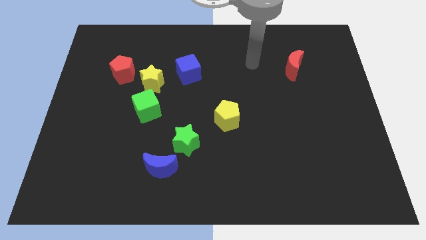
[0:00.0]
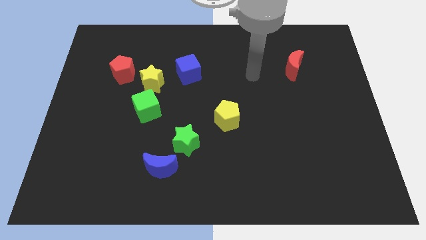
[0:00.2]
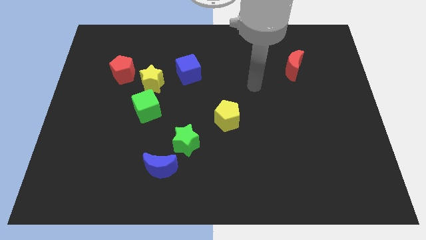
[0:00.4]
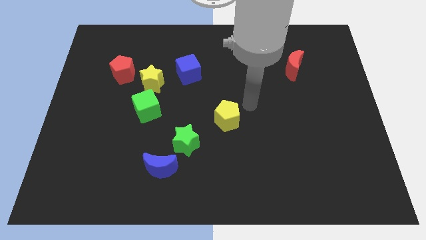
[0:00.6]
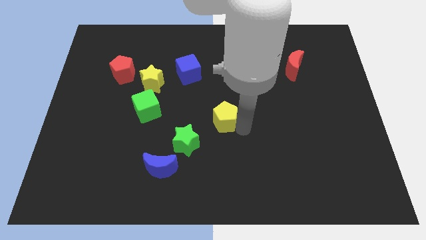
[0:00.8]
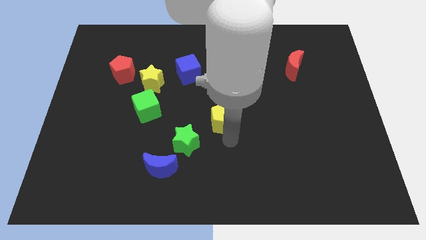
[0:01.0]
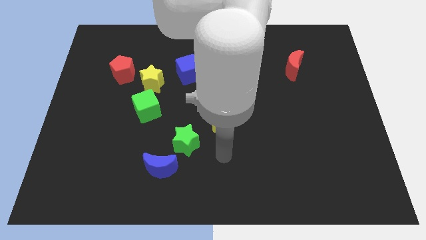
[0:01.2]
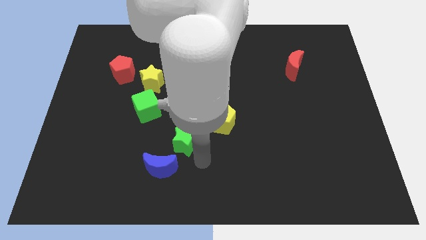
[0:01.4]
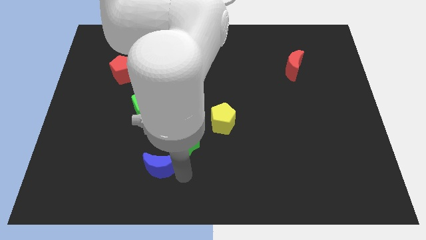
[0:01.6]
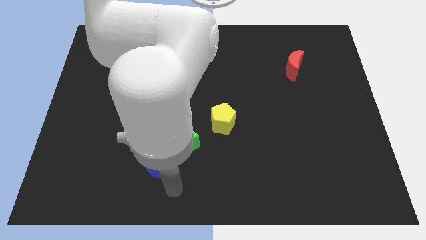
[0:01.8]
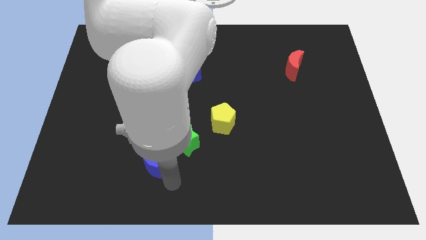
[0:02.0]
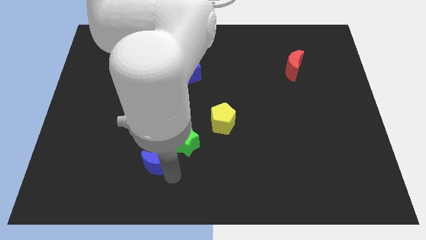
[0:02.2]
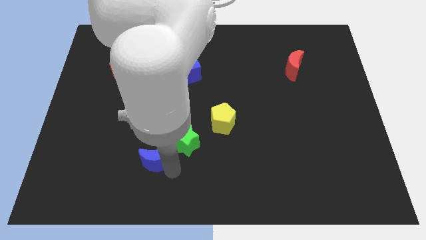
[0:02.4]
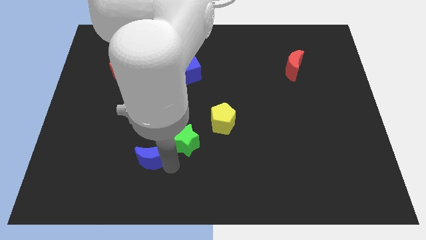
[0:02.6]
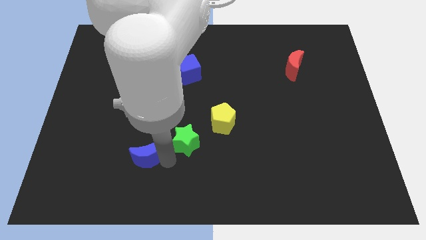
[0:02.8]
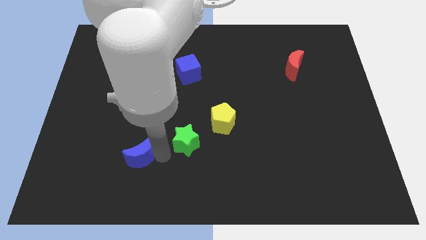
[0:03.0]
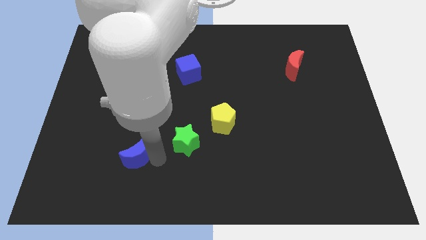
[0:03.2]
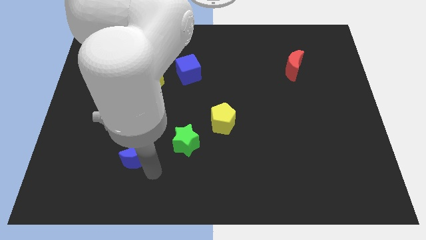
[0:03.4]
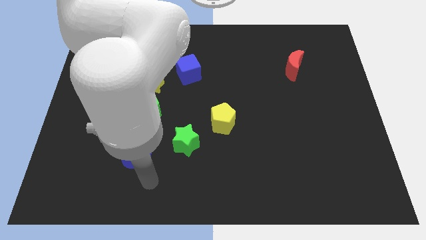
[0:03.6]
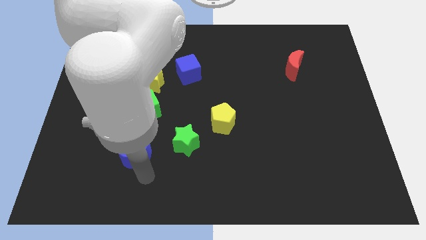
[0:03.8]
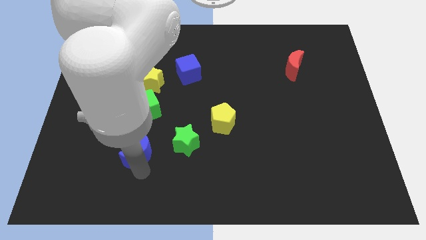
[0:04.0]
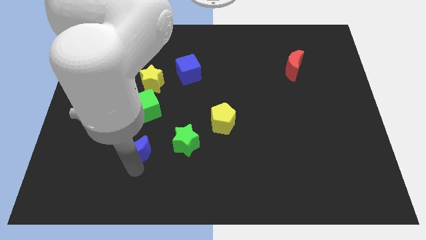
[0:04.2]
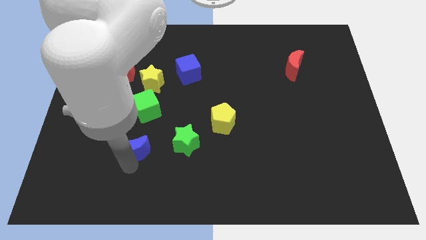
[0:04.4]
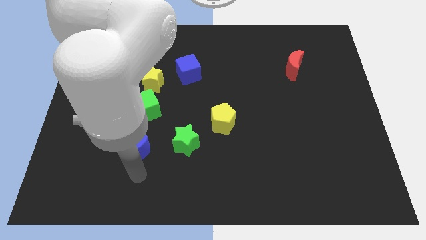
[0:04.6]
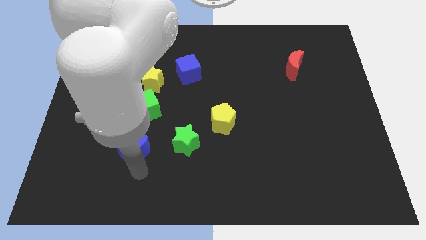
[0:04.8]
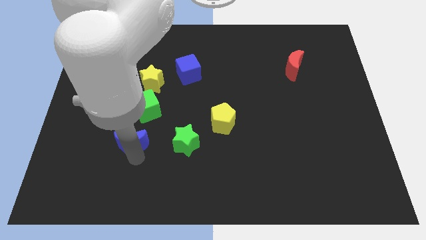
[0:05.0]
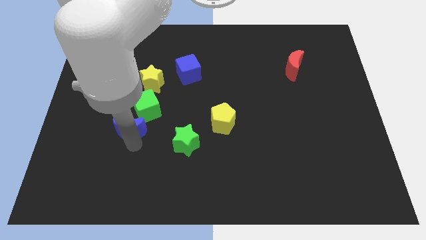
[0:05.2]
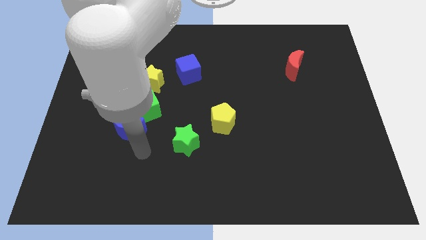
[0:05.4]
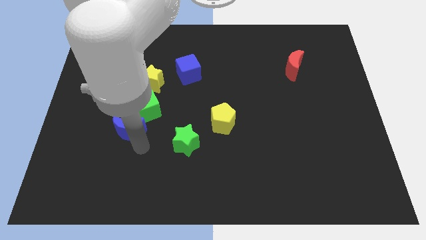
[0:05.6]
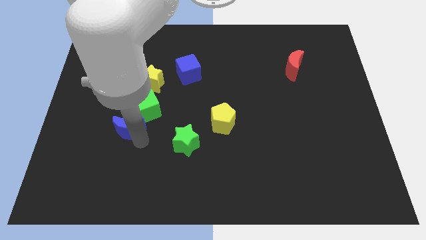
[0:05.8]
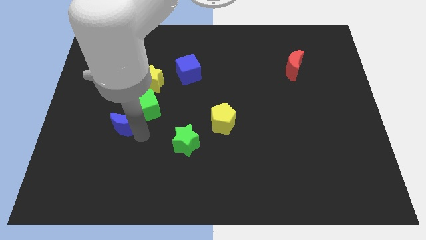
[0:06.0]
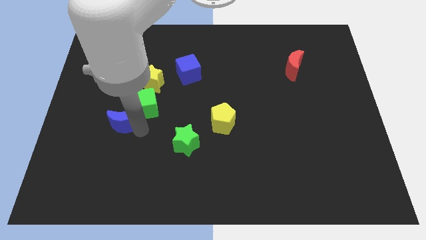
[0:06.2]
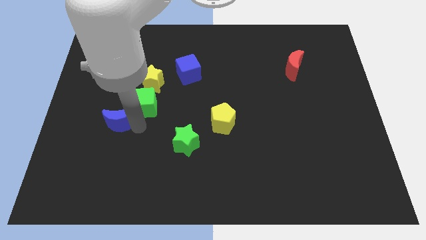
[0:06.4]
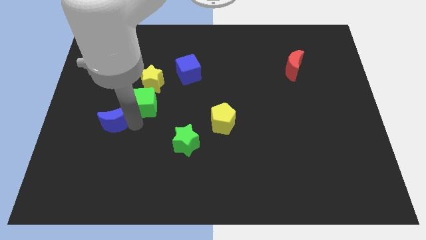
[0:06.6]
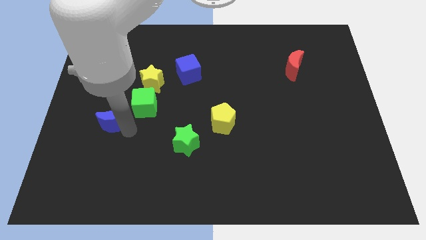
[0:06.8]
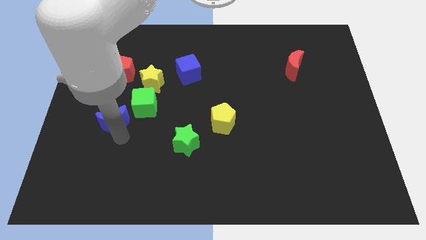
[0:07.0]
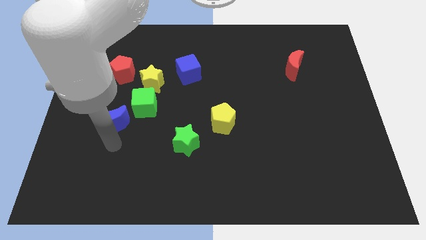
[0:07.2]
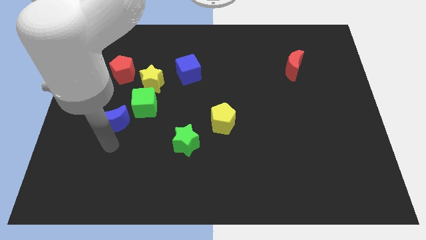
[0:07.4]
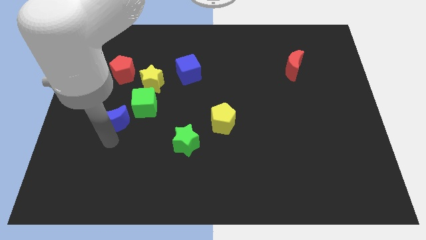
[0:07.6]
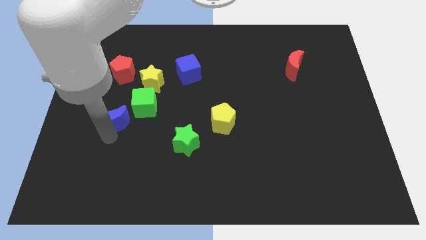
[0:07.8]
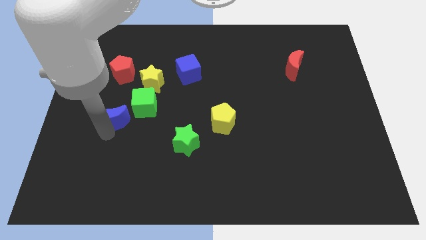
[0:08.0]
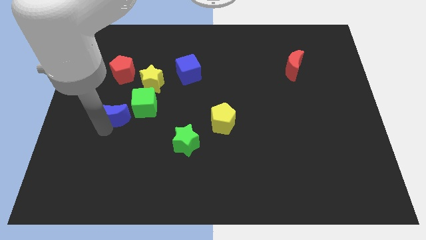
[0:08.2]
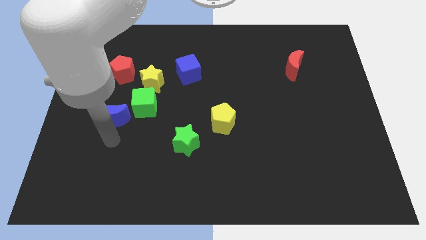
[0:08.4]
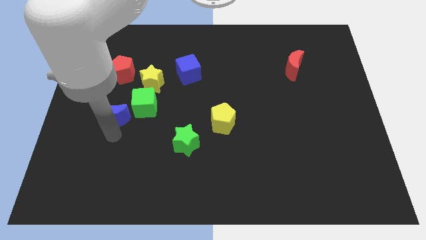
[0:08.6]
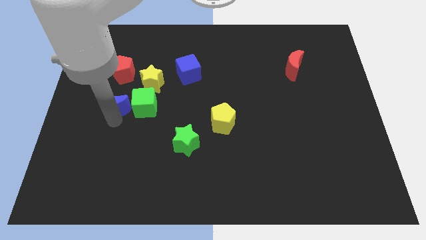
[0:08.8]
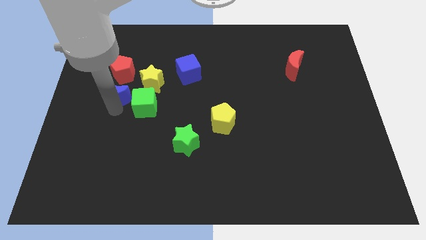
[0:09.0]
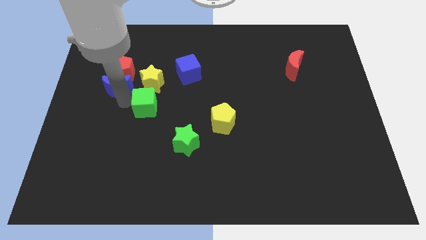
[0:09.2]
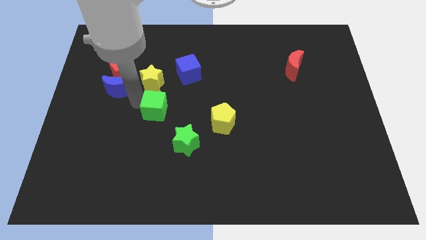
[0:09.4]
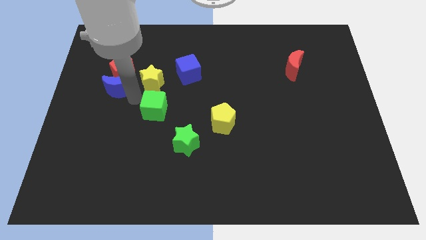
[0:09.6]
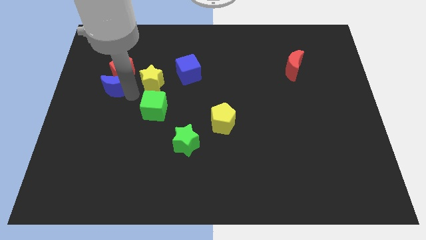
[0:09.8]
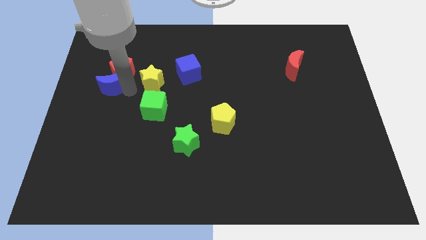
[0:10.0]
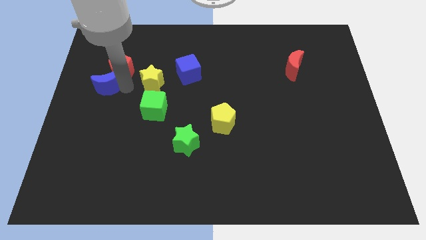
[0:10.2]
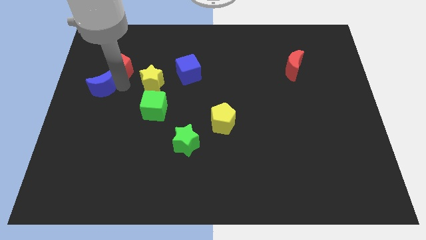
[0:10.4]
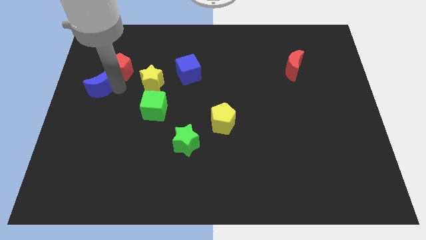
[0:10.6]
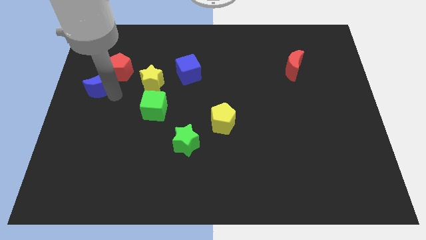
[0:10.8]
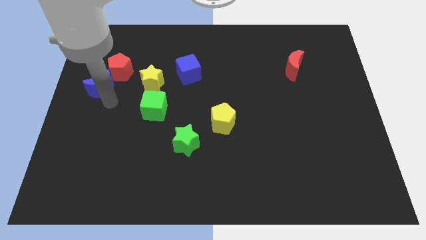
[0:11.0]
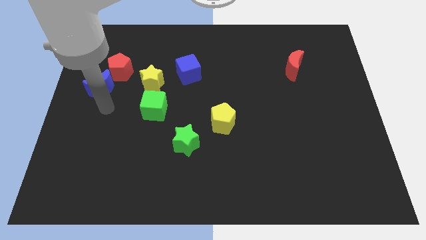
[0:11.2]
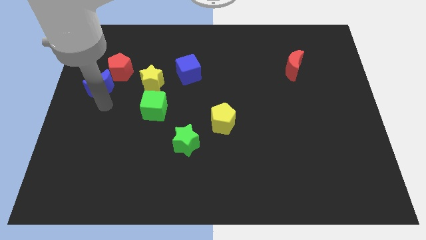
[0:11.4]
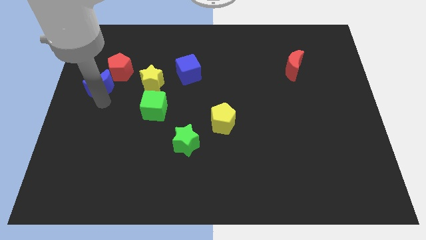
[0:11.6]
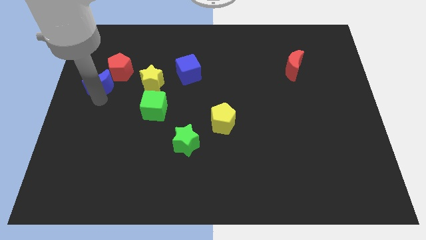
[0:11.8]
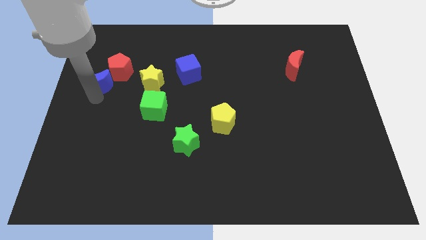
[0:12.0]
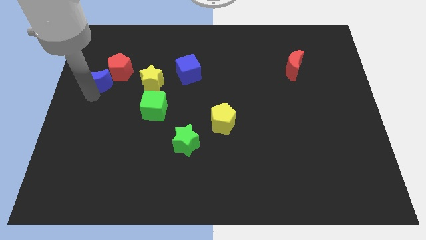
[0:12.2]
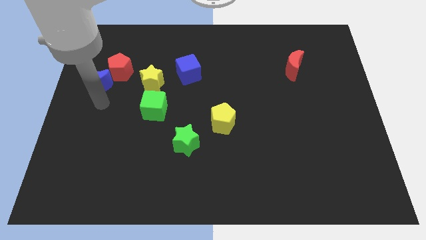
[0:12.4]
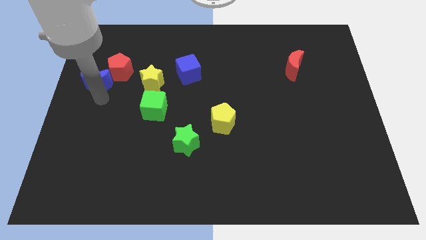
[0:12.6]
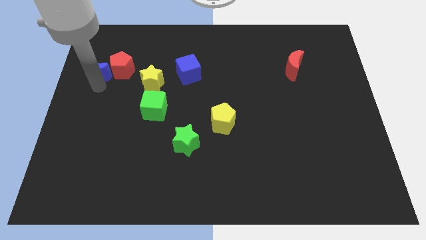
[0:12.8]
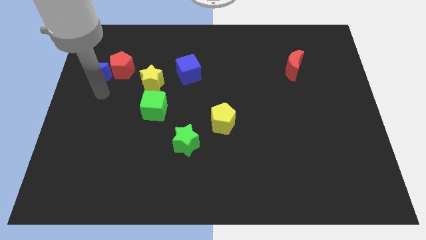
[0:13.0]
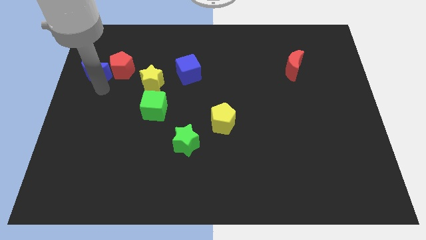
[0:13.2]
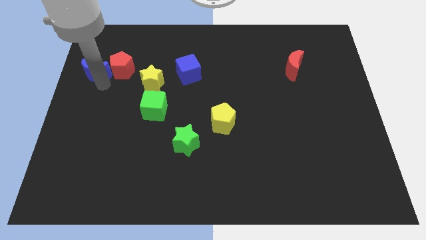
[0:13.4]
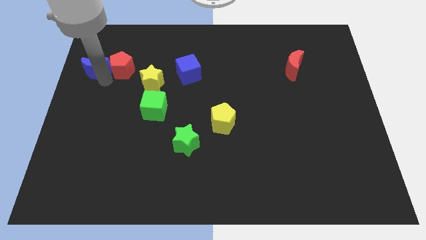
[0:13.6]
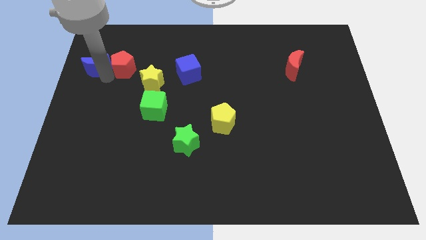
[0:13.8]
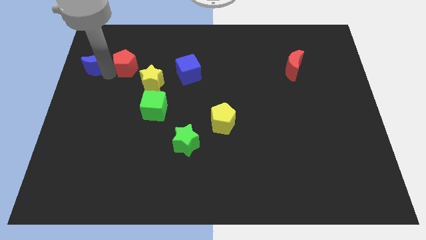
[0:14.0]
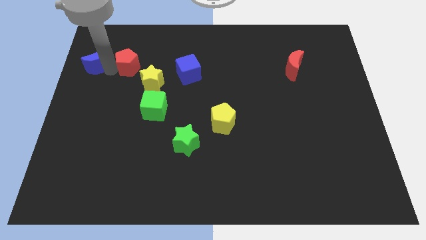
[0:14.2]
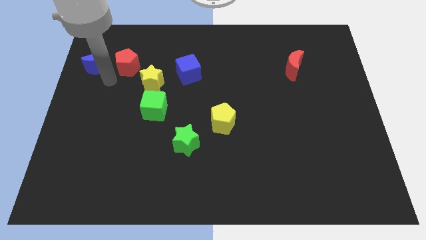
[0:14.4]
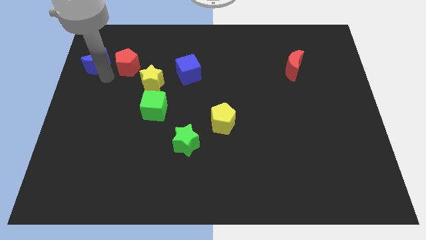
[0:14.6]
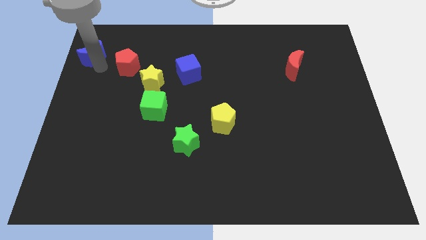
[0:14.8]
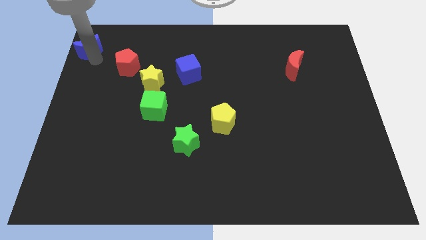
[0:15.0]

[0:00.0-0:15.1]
slide the blue moon to the top left of the board
